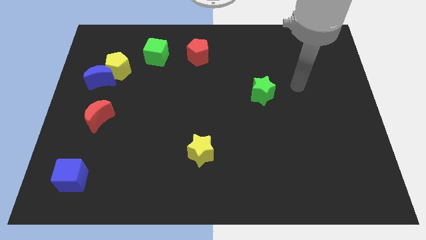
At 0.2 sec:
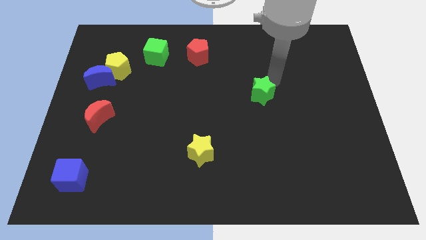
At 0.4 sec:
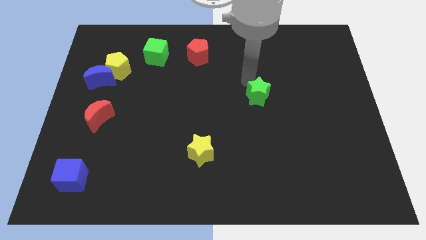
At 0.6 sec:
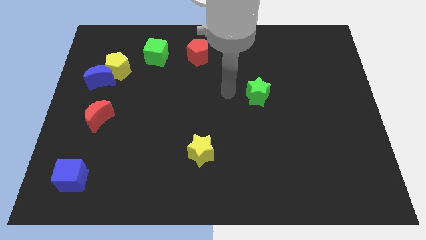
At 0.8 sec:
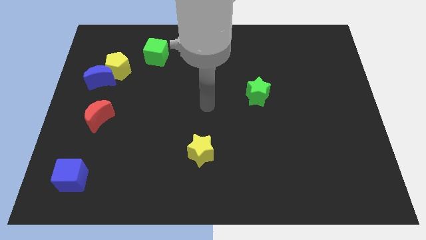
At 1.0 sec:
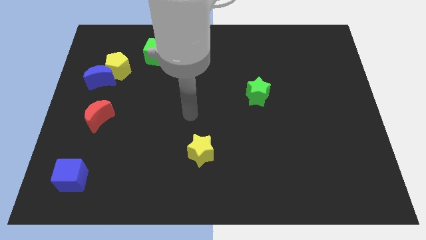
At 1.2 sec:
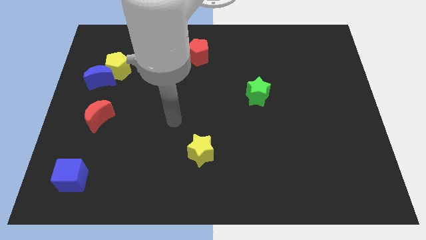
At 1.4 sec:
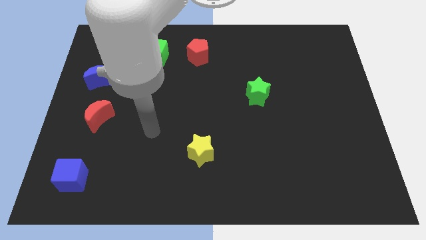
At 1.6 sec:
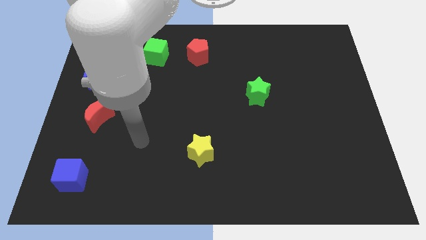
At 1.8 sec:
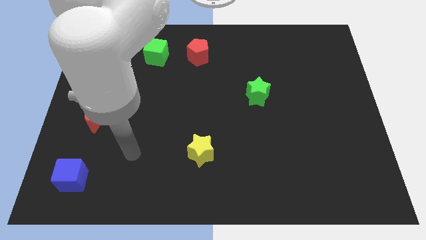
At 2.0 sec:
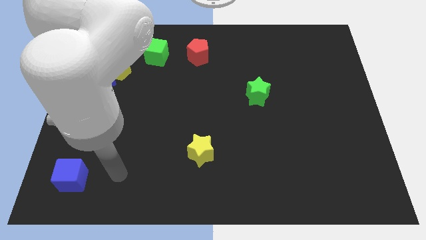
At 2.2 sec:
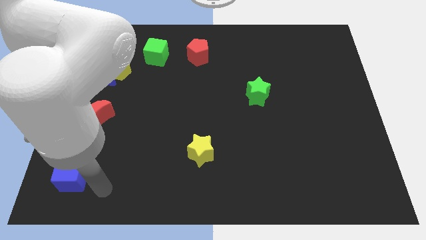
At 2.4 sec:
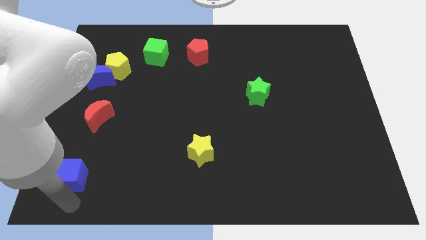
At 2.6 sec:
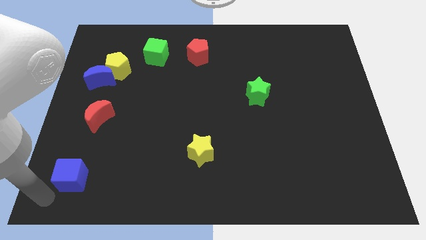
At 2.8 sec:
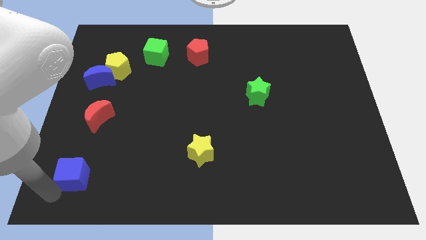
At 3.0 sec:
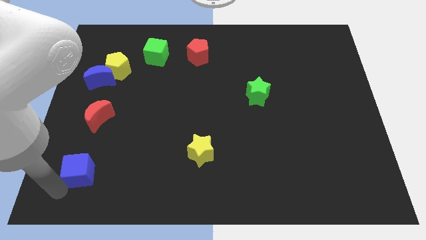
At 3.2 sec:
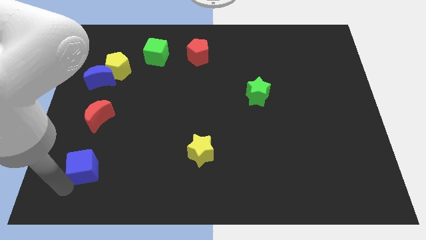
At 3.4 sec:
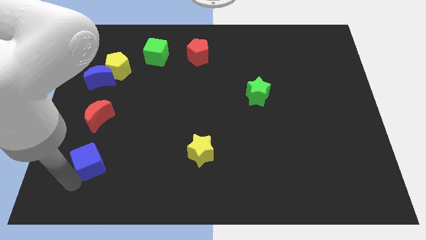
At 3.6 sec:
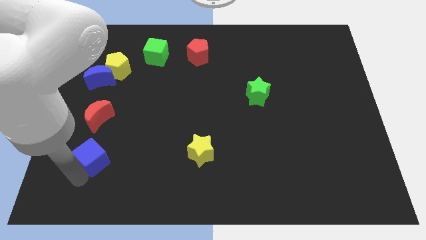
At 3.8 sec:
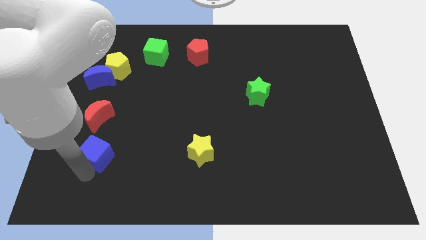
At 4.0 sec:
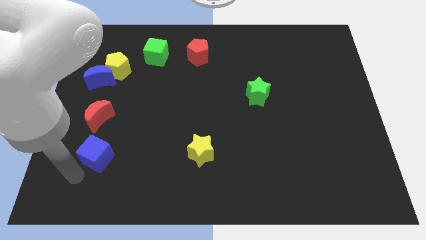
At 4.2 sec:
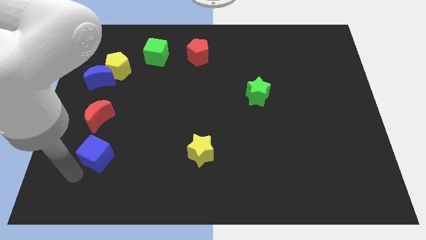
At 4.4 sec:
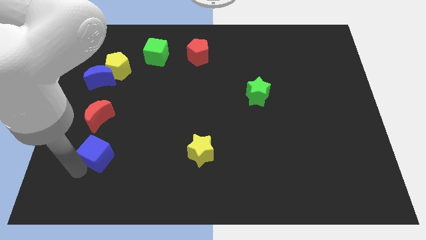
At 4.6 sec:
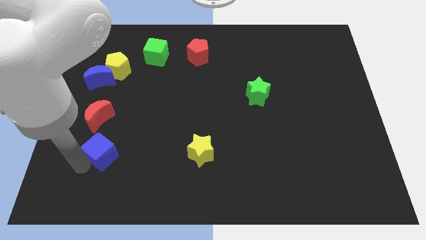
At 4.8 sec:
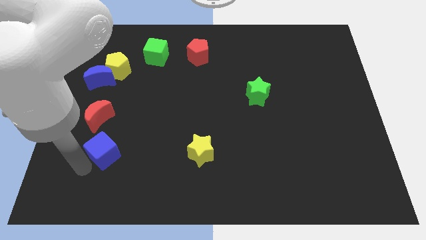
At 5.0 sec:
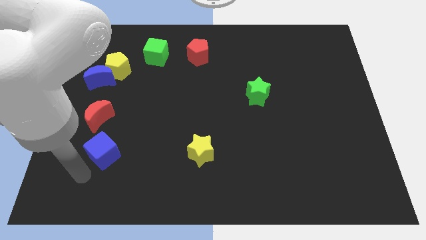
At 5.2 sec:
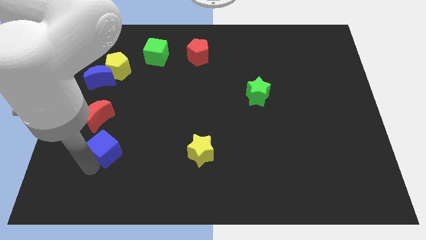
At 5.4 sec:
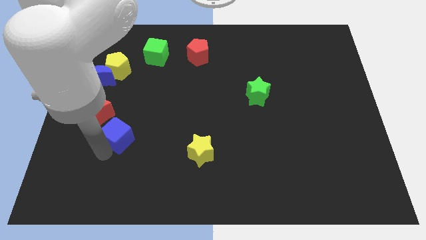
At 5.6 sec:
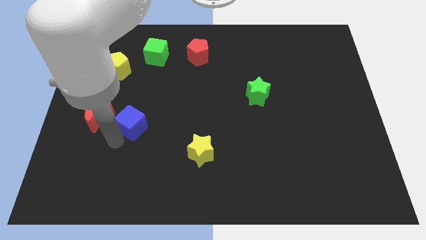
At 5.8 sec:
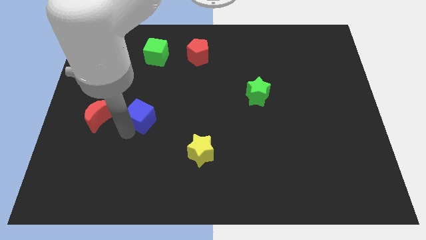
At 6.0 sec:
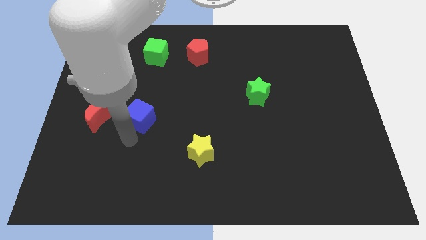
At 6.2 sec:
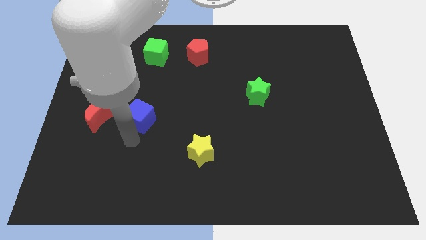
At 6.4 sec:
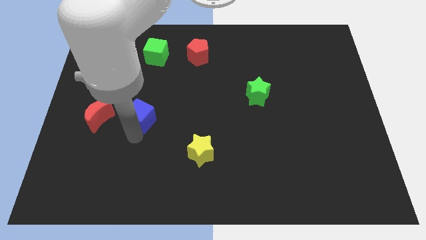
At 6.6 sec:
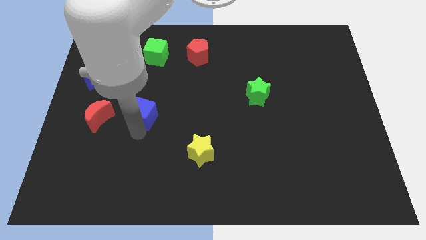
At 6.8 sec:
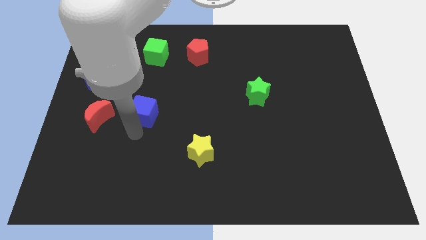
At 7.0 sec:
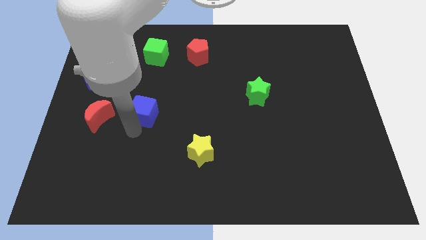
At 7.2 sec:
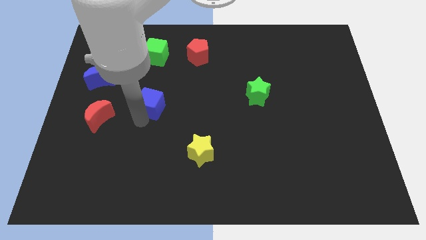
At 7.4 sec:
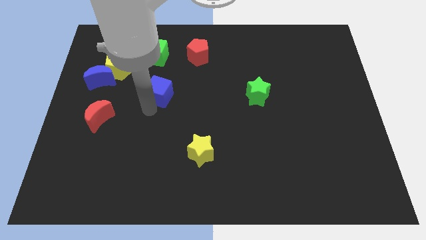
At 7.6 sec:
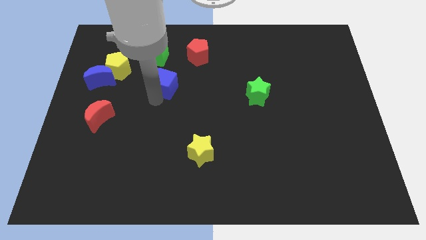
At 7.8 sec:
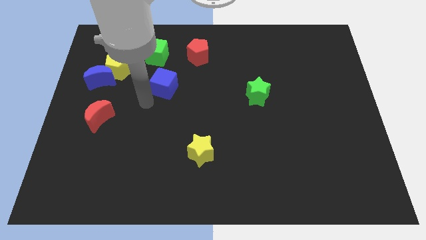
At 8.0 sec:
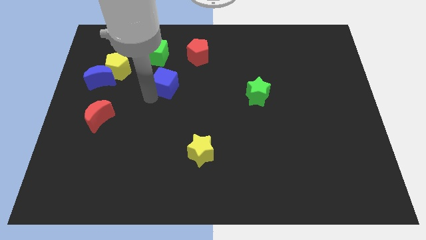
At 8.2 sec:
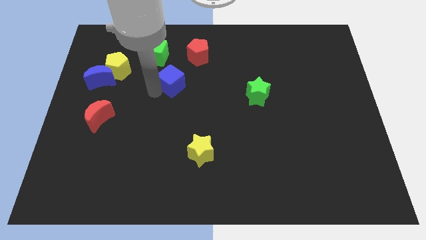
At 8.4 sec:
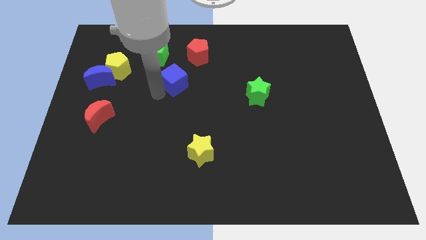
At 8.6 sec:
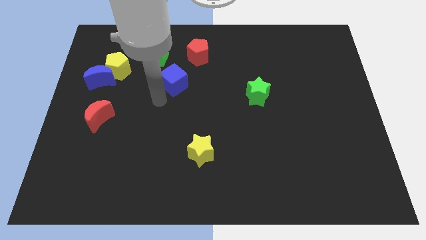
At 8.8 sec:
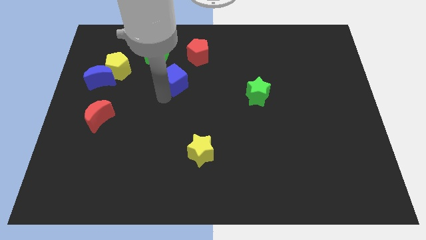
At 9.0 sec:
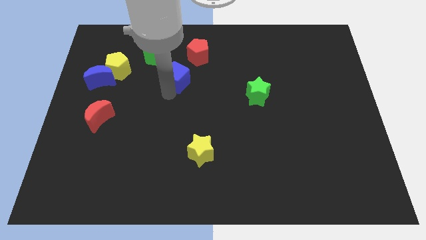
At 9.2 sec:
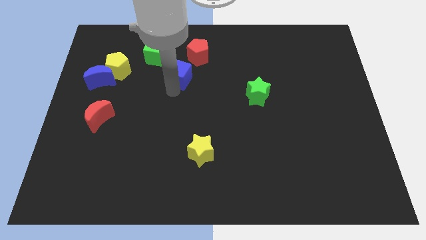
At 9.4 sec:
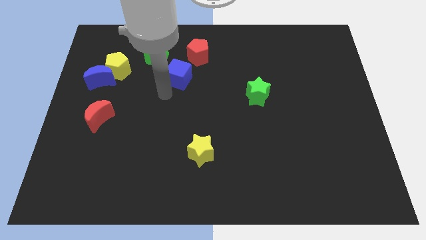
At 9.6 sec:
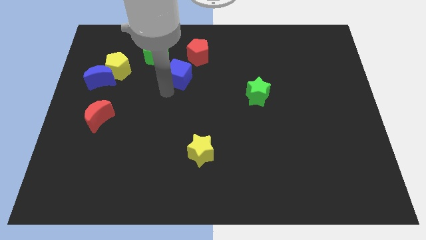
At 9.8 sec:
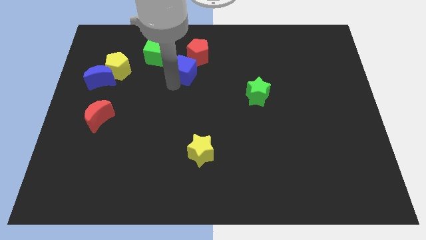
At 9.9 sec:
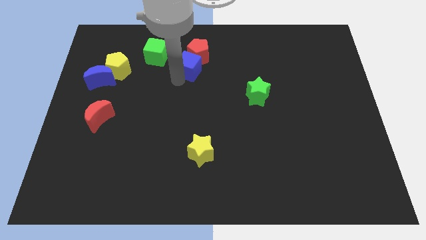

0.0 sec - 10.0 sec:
push the blue cube close to the red pentagon

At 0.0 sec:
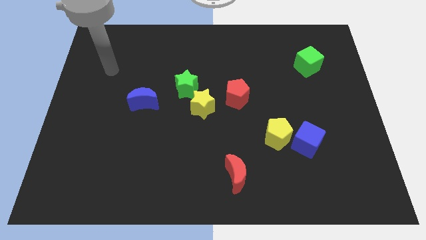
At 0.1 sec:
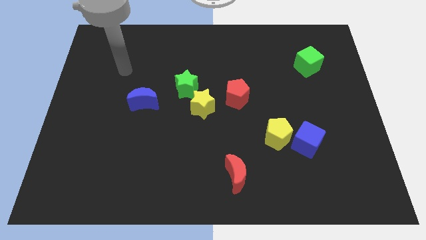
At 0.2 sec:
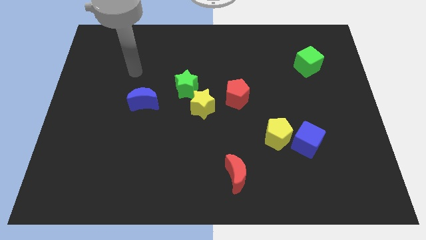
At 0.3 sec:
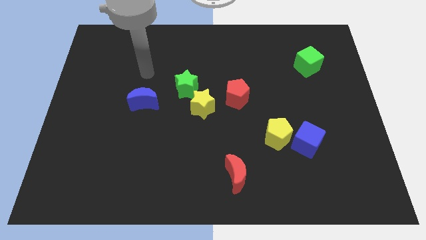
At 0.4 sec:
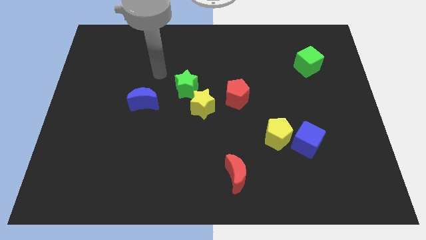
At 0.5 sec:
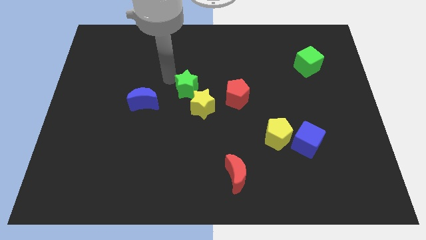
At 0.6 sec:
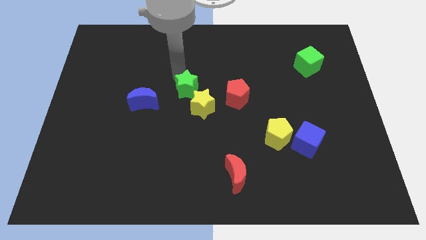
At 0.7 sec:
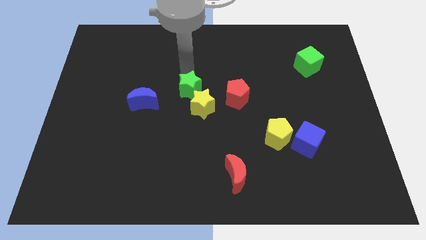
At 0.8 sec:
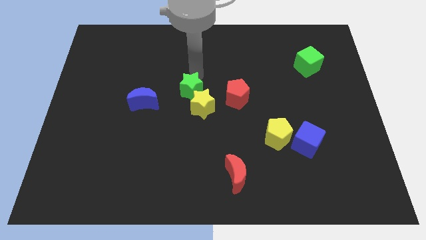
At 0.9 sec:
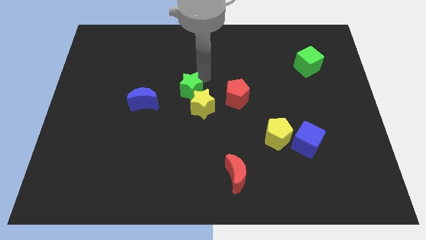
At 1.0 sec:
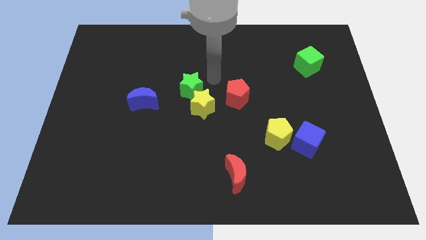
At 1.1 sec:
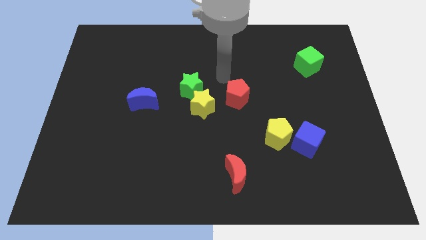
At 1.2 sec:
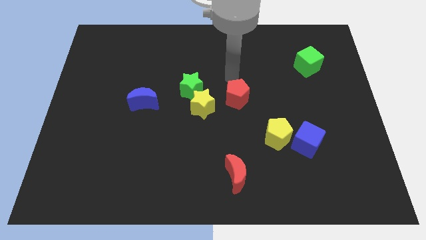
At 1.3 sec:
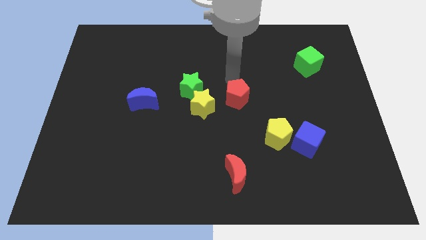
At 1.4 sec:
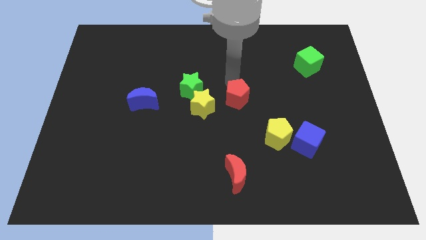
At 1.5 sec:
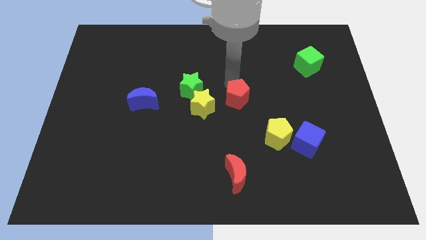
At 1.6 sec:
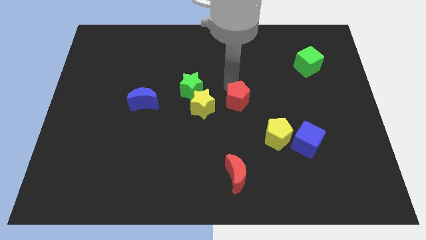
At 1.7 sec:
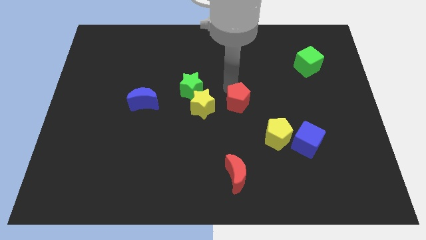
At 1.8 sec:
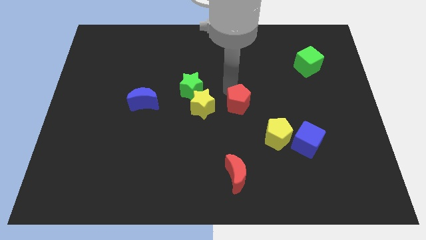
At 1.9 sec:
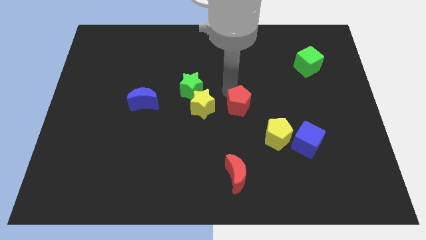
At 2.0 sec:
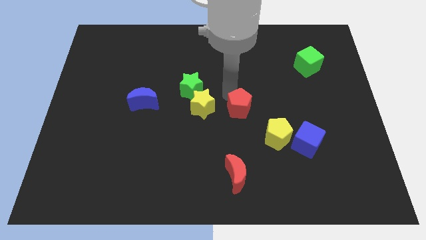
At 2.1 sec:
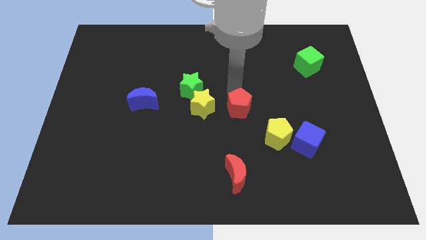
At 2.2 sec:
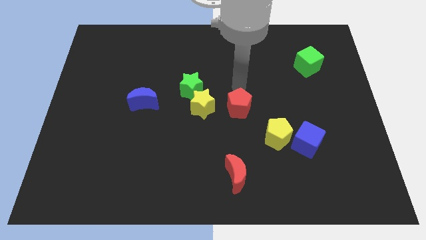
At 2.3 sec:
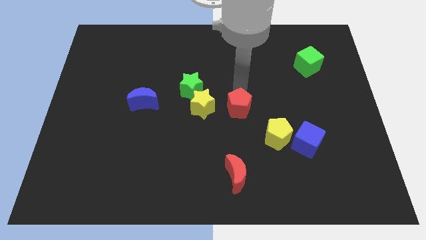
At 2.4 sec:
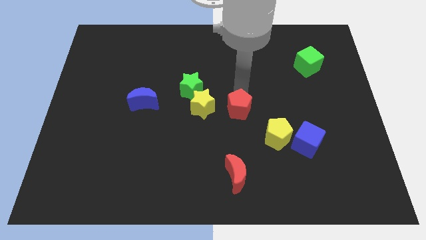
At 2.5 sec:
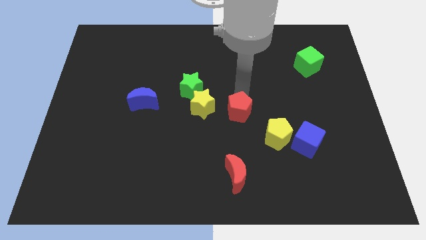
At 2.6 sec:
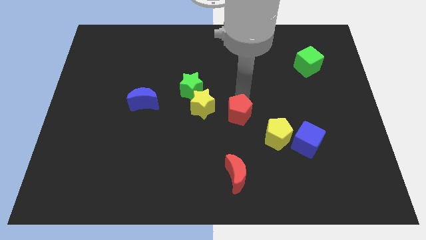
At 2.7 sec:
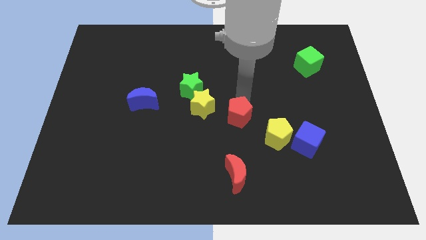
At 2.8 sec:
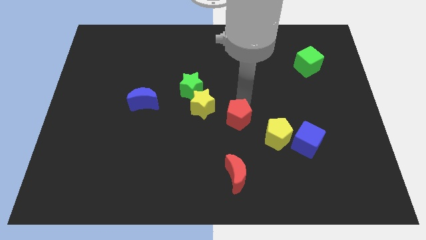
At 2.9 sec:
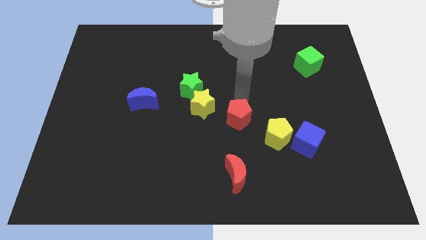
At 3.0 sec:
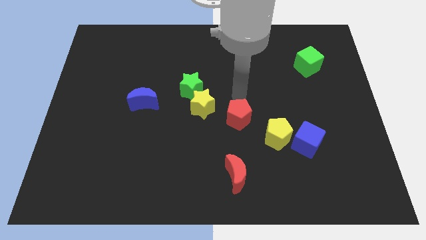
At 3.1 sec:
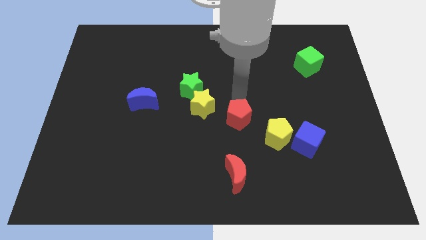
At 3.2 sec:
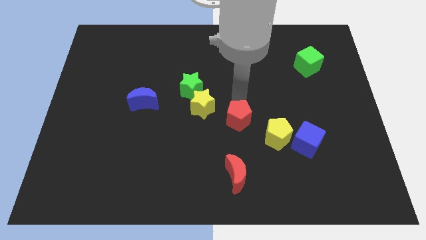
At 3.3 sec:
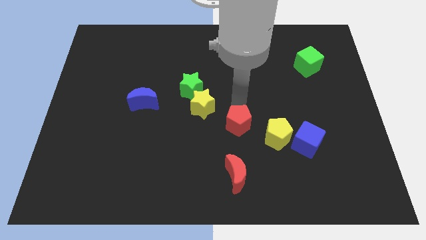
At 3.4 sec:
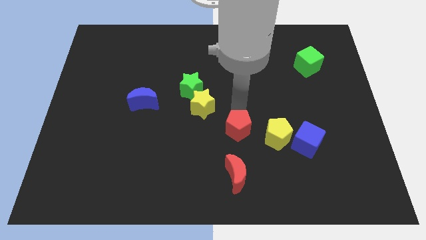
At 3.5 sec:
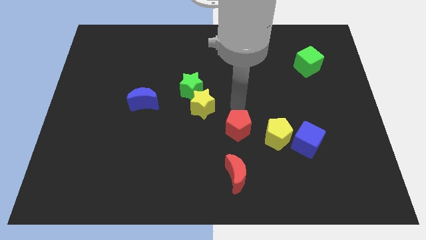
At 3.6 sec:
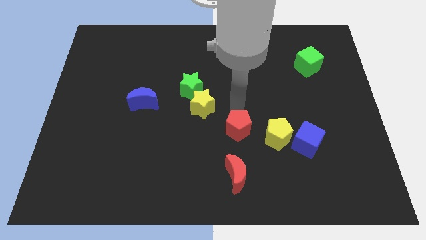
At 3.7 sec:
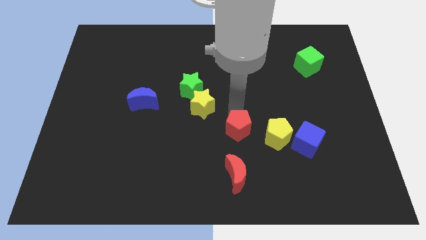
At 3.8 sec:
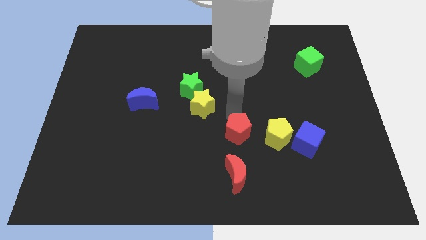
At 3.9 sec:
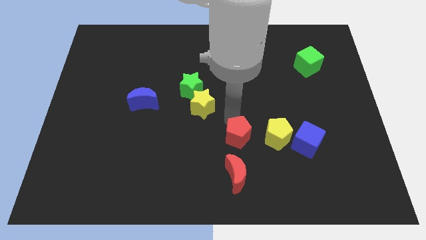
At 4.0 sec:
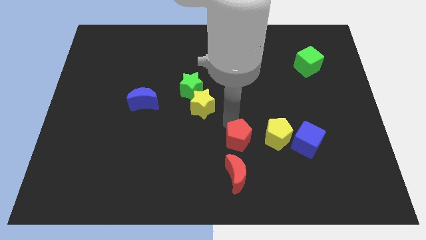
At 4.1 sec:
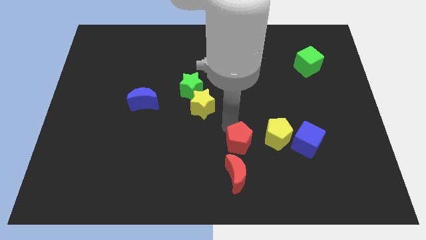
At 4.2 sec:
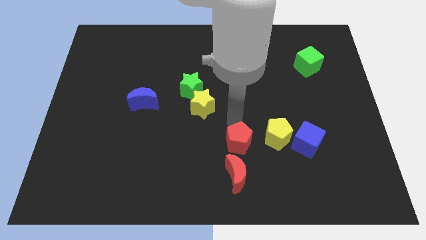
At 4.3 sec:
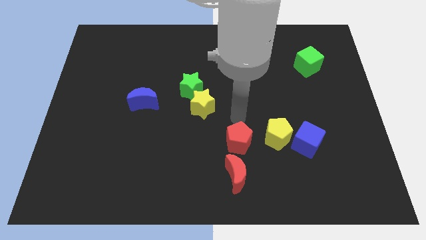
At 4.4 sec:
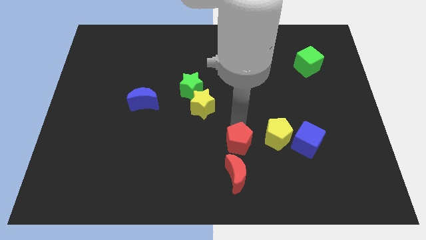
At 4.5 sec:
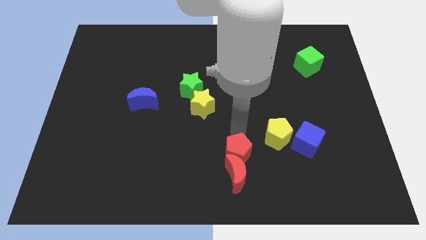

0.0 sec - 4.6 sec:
put the red pentagon next to the red moon
